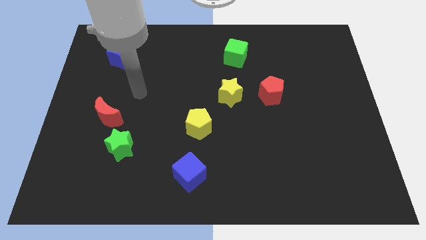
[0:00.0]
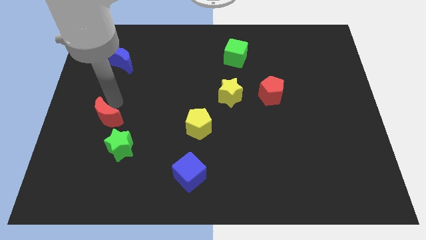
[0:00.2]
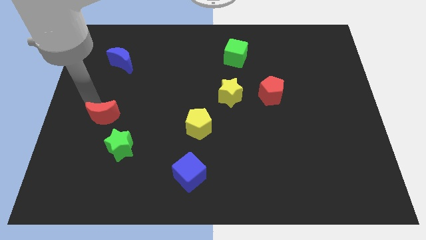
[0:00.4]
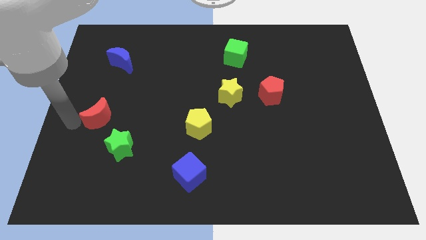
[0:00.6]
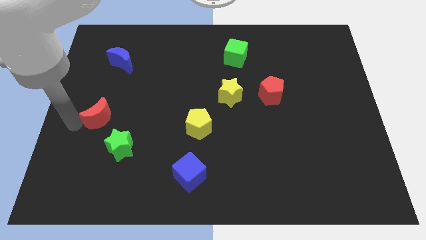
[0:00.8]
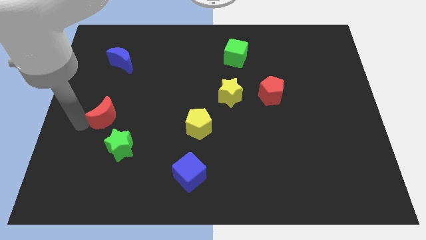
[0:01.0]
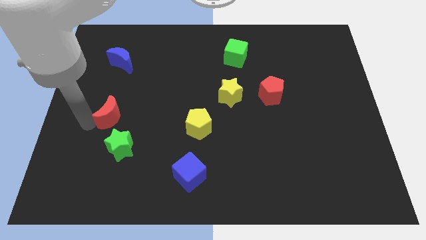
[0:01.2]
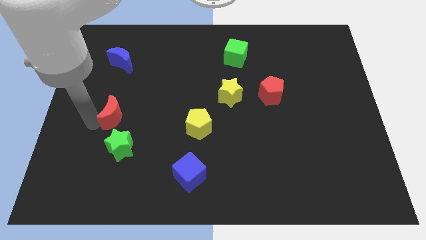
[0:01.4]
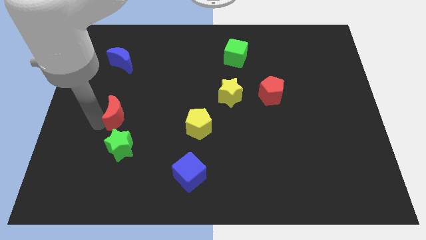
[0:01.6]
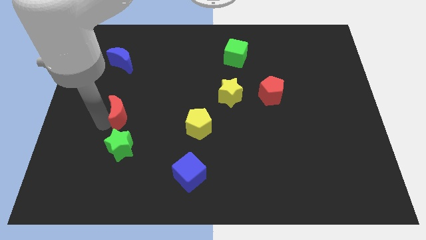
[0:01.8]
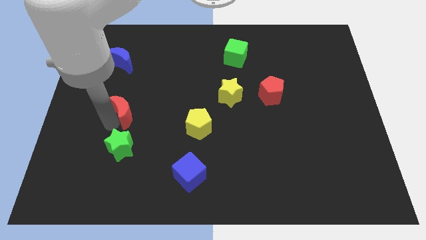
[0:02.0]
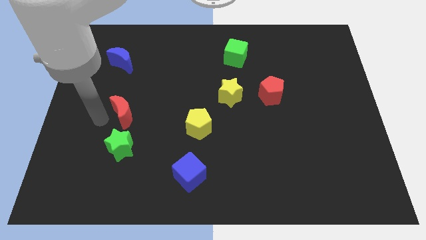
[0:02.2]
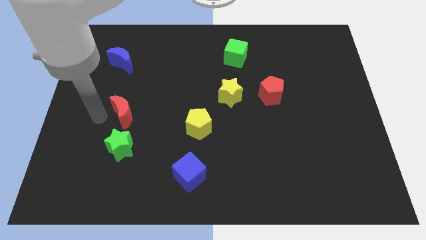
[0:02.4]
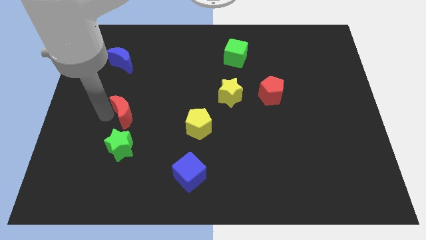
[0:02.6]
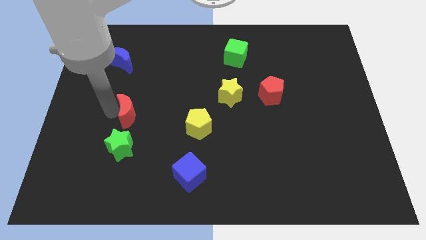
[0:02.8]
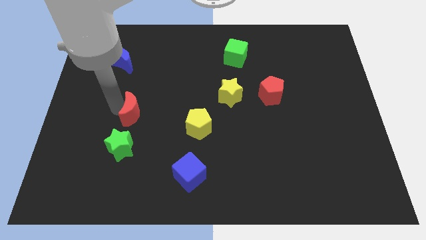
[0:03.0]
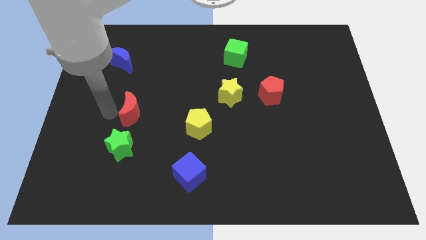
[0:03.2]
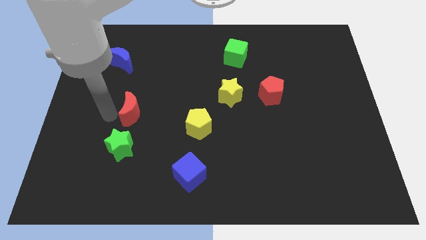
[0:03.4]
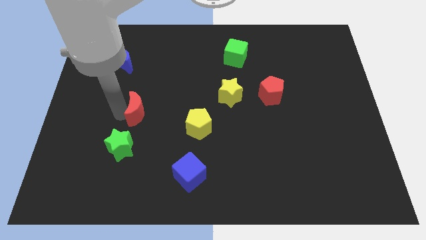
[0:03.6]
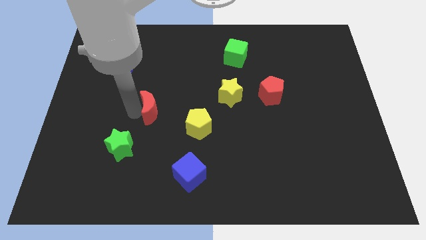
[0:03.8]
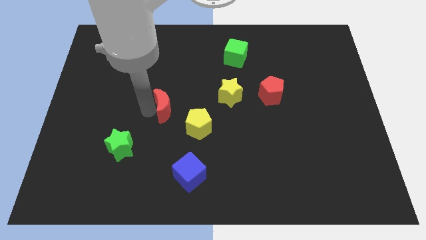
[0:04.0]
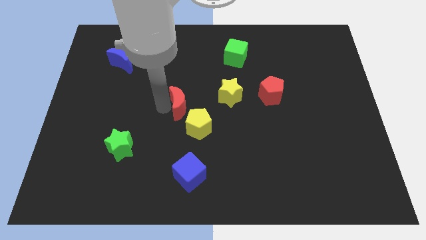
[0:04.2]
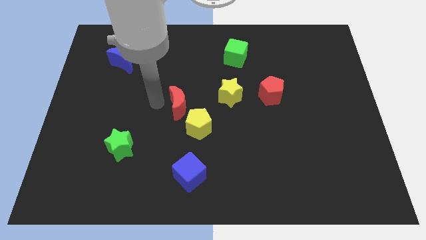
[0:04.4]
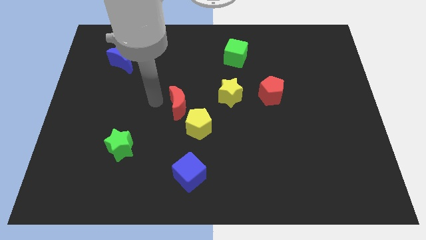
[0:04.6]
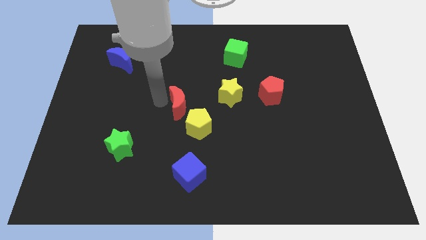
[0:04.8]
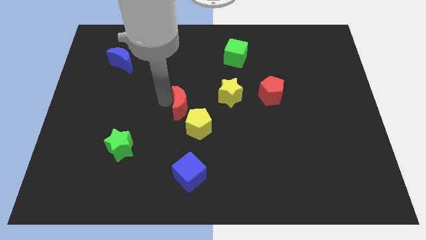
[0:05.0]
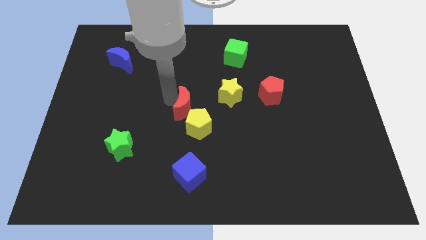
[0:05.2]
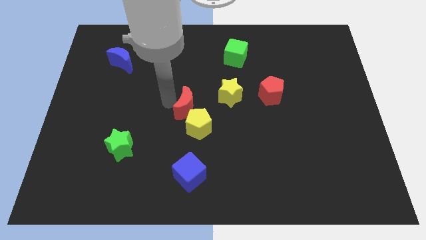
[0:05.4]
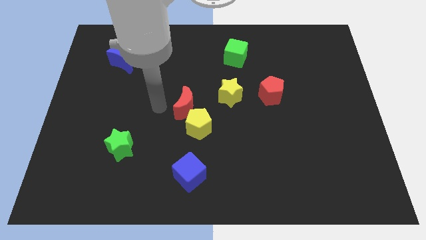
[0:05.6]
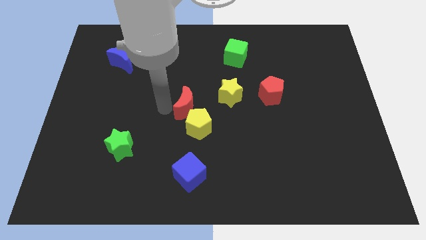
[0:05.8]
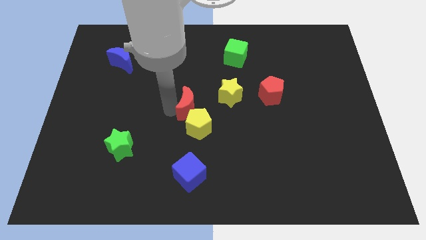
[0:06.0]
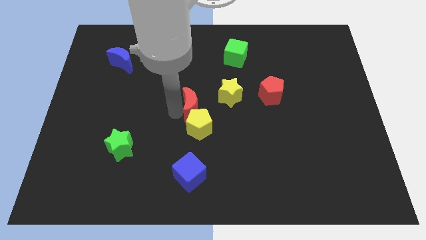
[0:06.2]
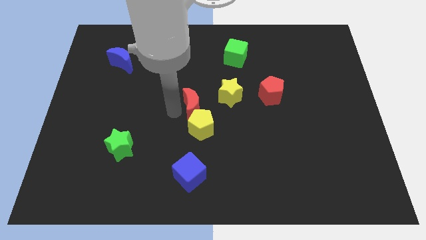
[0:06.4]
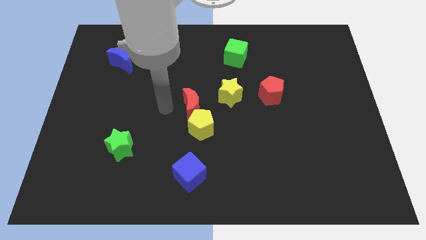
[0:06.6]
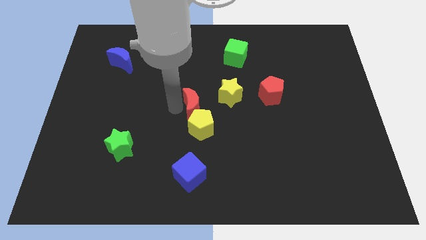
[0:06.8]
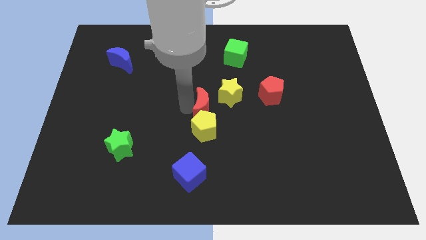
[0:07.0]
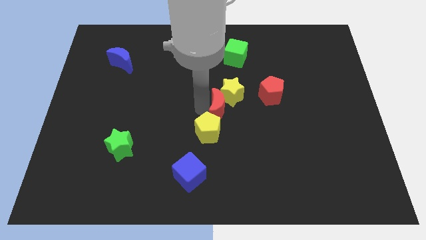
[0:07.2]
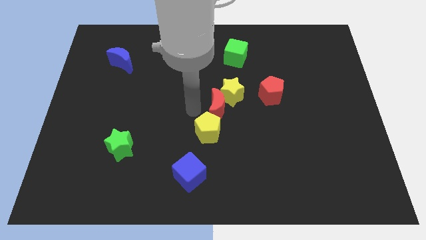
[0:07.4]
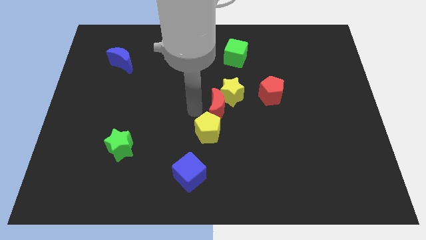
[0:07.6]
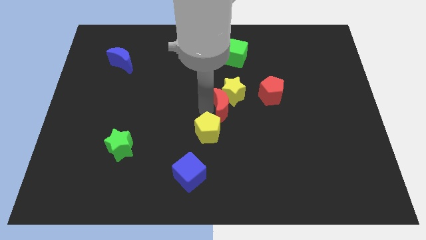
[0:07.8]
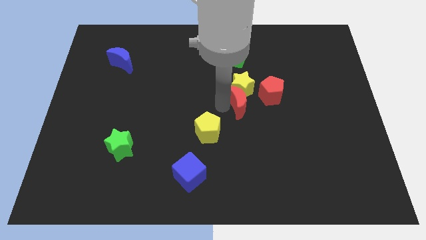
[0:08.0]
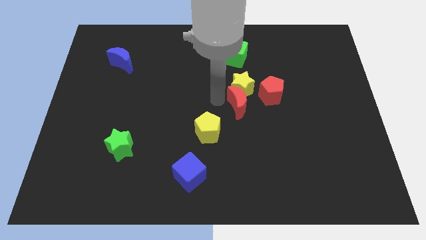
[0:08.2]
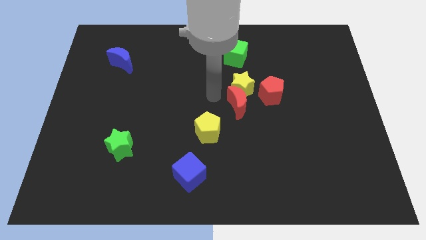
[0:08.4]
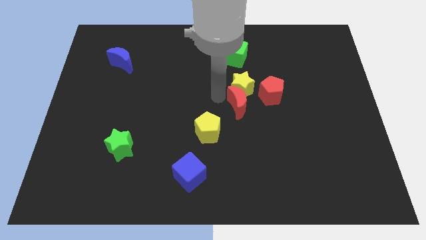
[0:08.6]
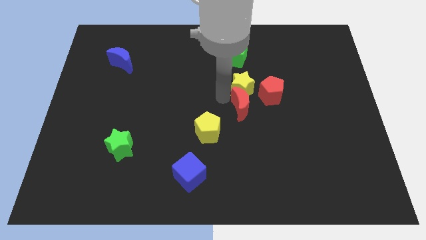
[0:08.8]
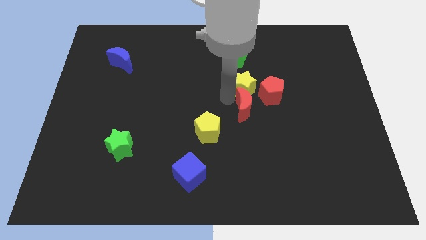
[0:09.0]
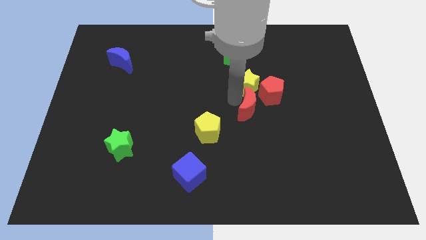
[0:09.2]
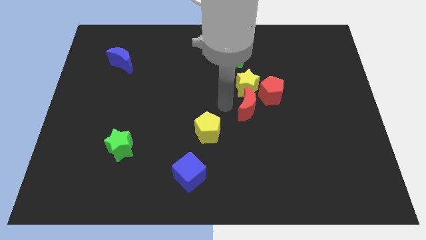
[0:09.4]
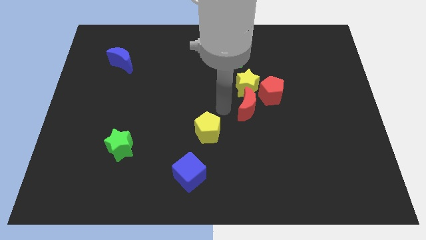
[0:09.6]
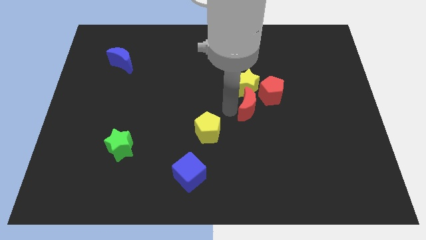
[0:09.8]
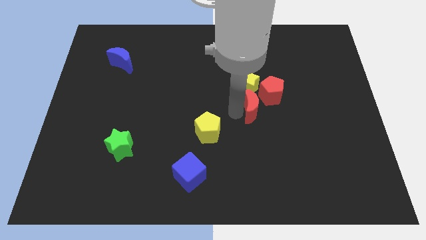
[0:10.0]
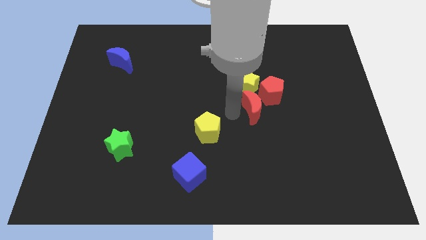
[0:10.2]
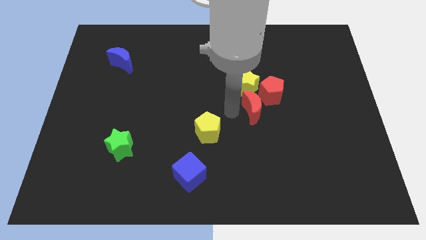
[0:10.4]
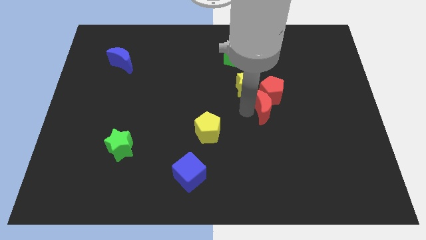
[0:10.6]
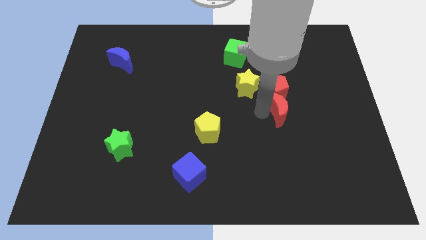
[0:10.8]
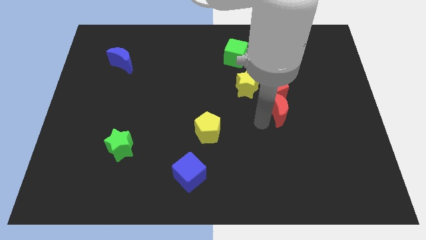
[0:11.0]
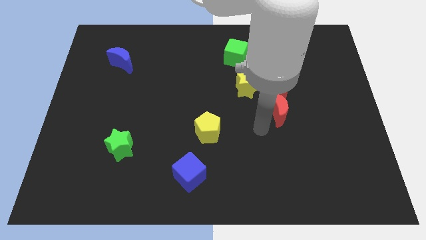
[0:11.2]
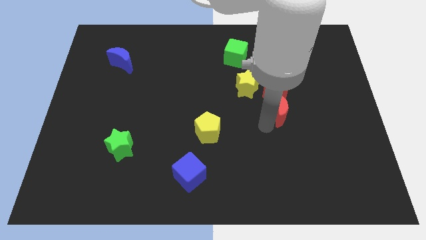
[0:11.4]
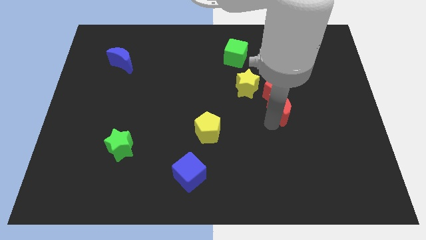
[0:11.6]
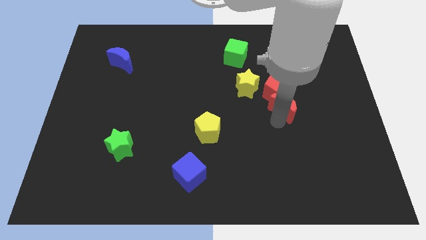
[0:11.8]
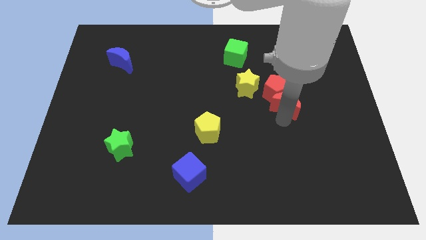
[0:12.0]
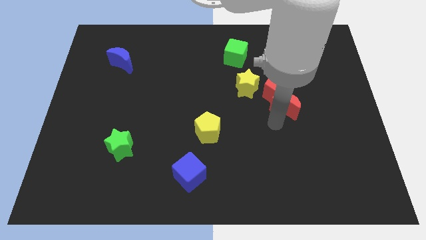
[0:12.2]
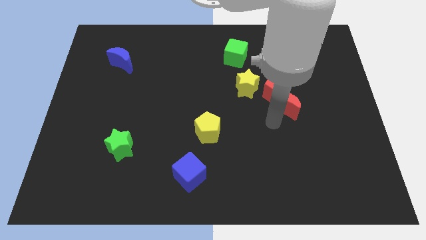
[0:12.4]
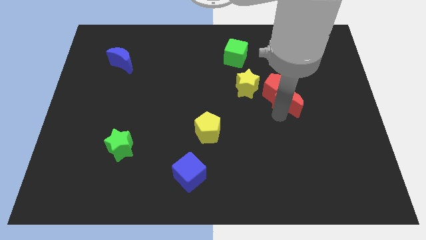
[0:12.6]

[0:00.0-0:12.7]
put the red moon to the right of the red pentagon
